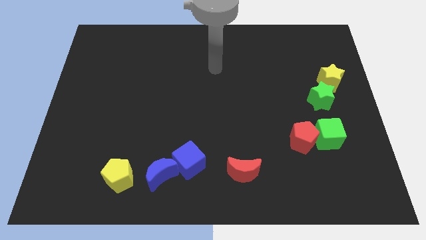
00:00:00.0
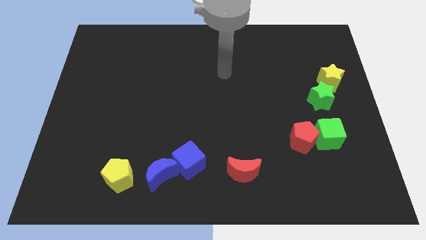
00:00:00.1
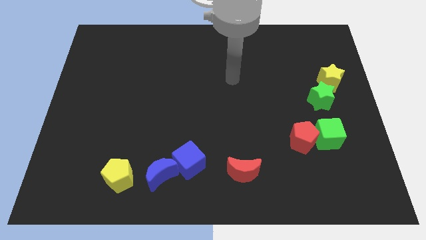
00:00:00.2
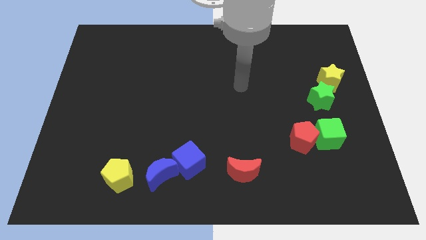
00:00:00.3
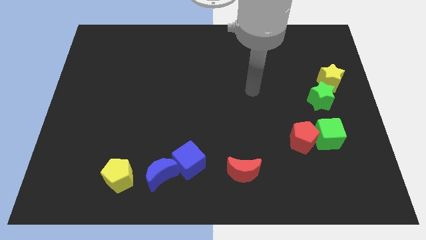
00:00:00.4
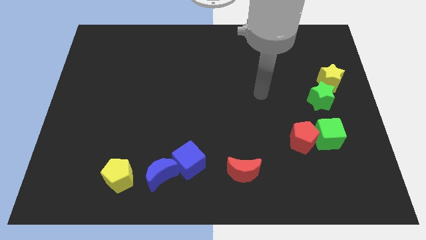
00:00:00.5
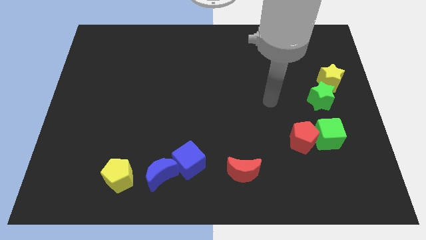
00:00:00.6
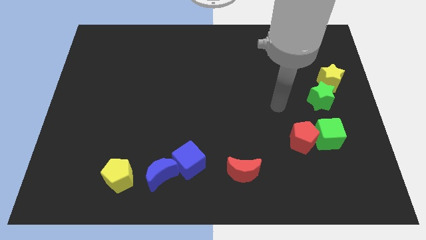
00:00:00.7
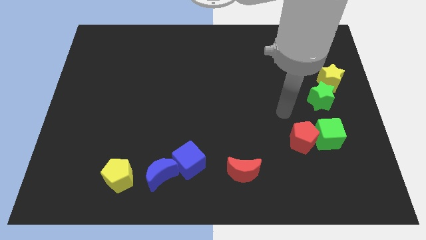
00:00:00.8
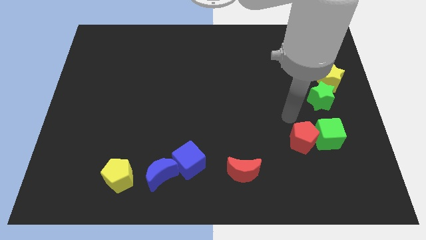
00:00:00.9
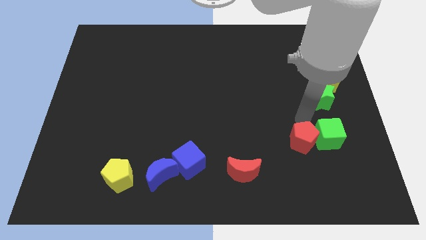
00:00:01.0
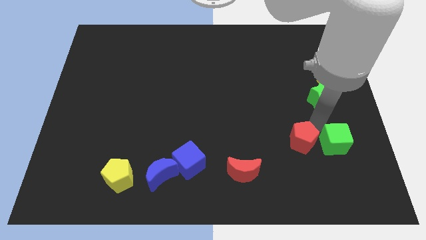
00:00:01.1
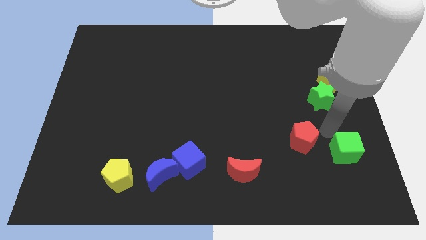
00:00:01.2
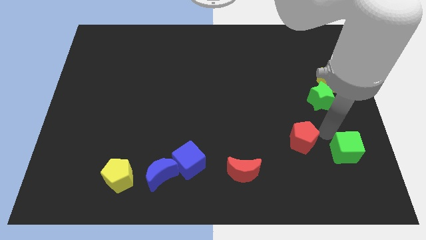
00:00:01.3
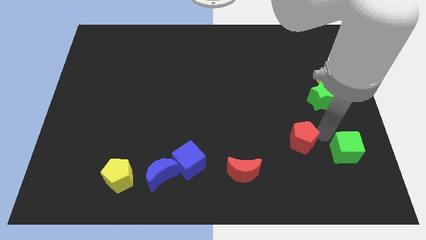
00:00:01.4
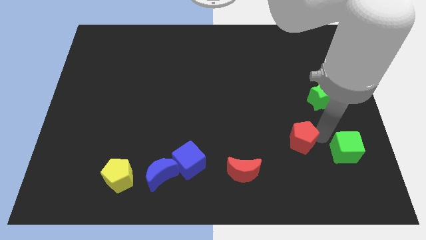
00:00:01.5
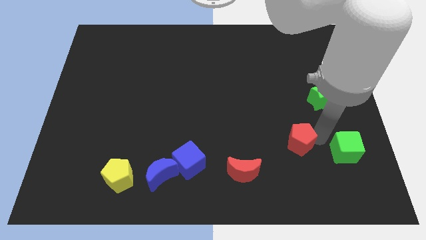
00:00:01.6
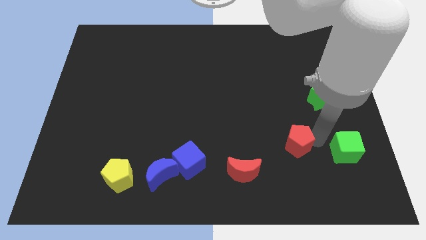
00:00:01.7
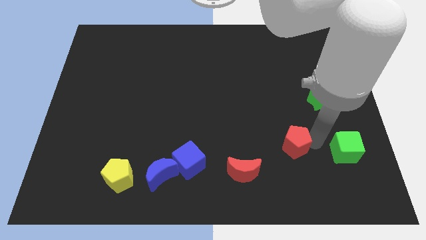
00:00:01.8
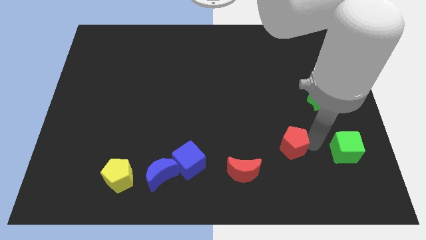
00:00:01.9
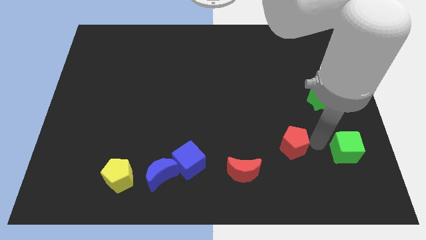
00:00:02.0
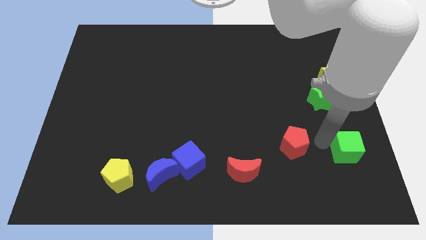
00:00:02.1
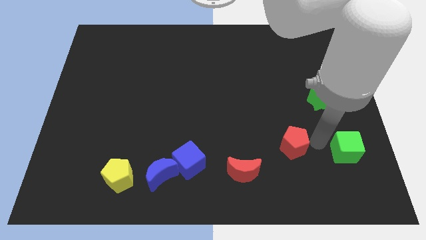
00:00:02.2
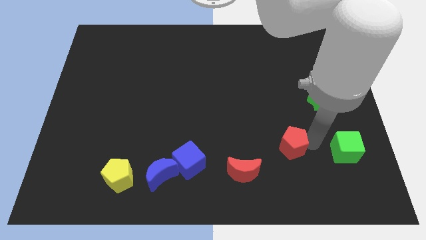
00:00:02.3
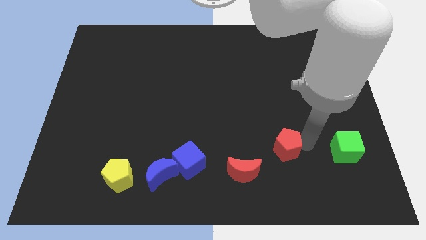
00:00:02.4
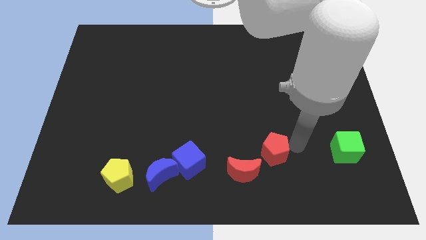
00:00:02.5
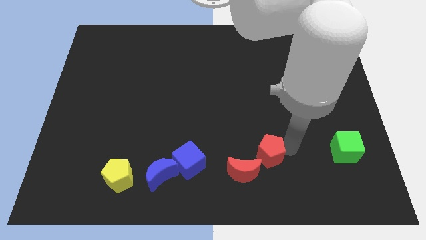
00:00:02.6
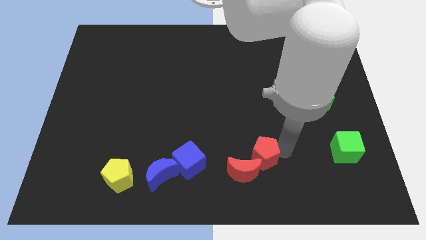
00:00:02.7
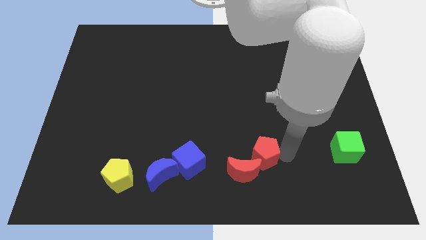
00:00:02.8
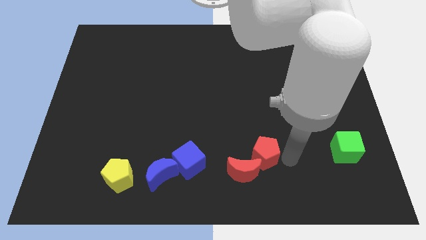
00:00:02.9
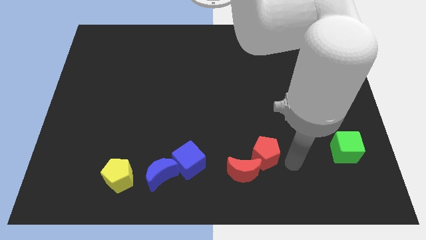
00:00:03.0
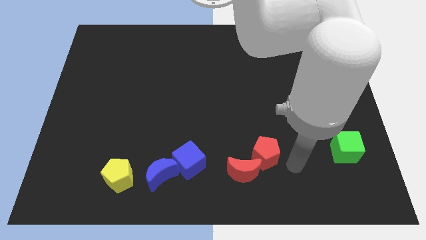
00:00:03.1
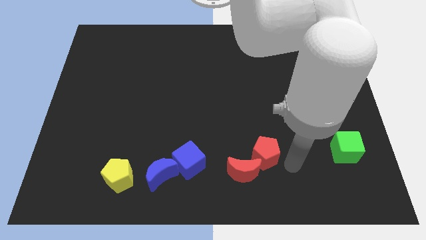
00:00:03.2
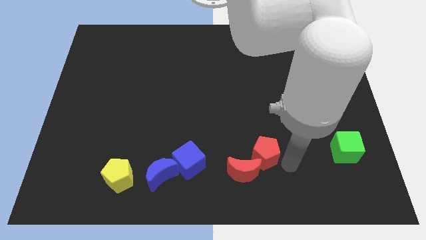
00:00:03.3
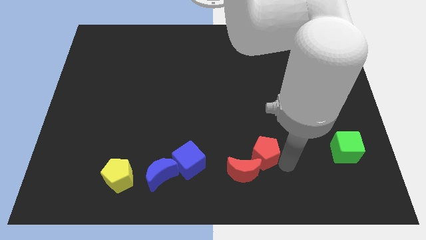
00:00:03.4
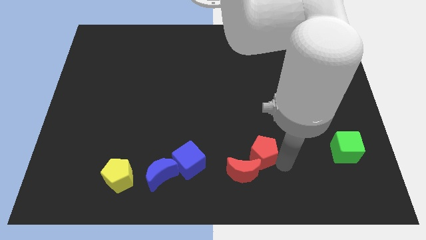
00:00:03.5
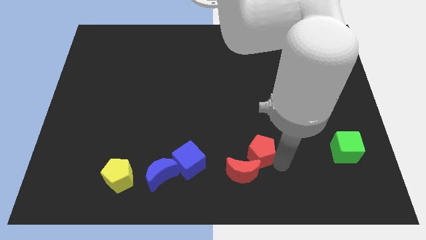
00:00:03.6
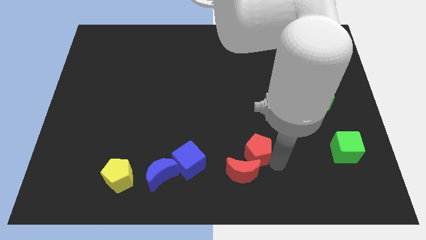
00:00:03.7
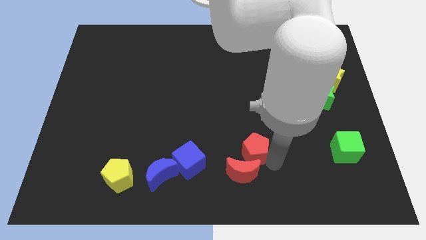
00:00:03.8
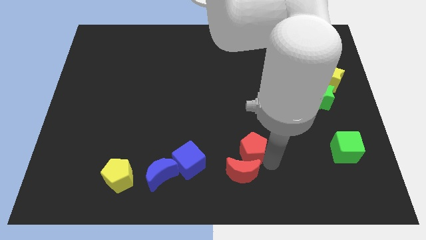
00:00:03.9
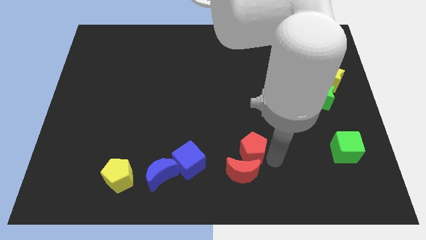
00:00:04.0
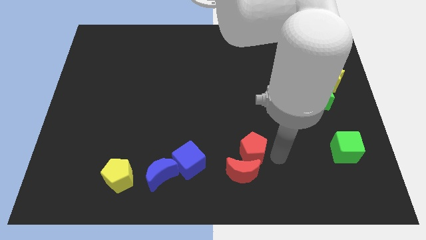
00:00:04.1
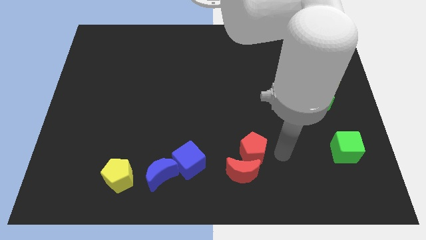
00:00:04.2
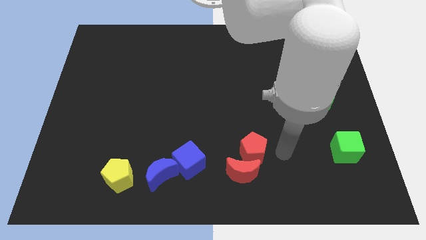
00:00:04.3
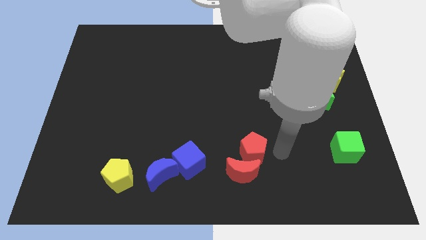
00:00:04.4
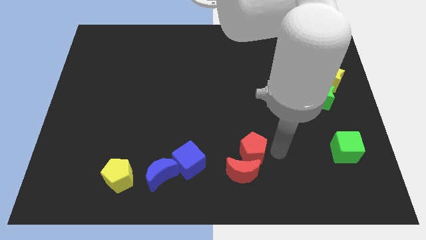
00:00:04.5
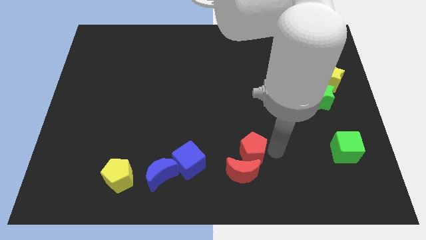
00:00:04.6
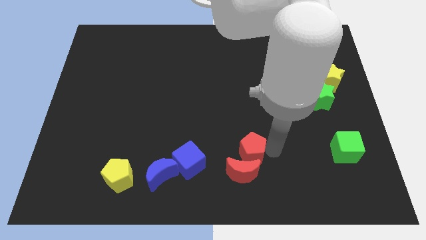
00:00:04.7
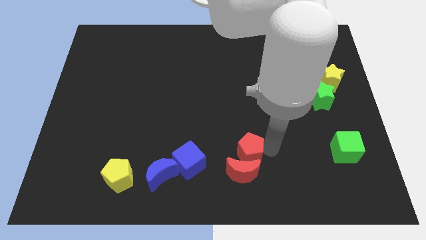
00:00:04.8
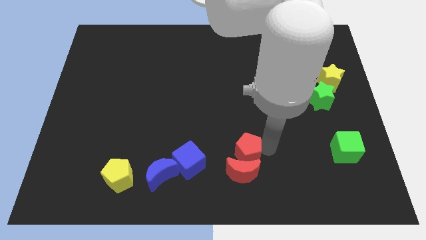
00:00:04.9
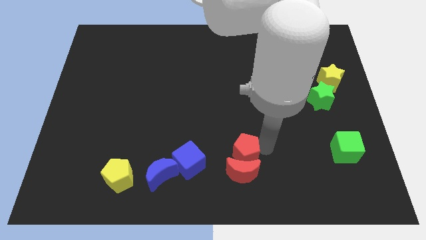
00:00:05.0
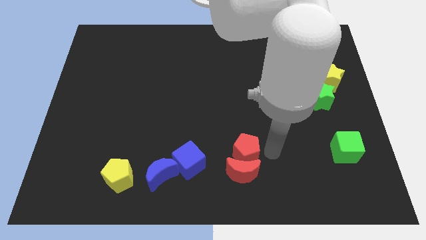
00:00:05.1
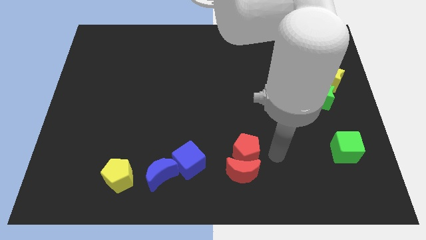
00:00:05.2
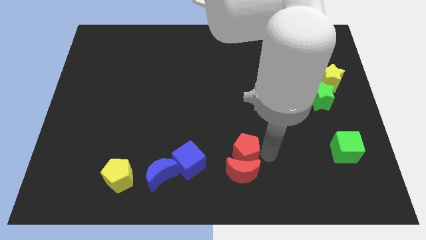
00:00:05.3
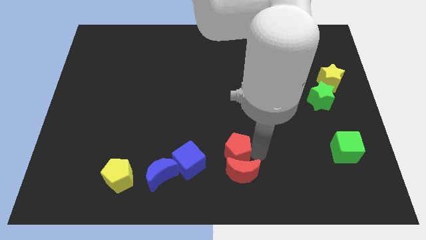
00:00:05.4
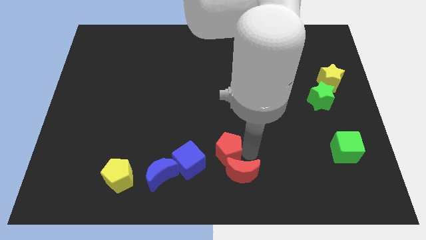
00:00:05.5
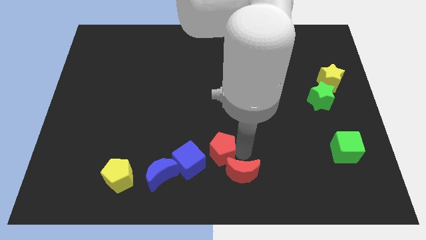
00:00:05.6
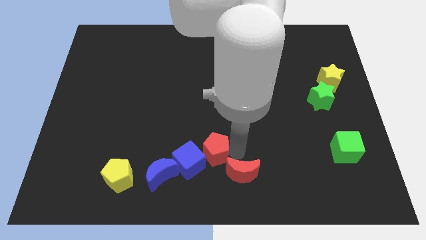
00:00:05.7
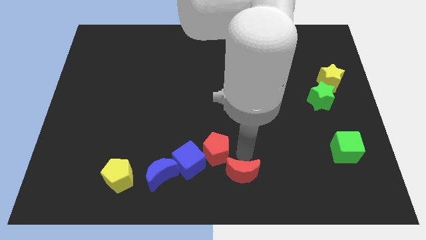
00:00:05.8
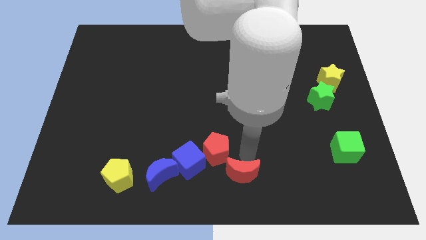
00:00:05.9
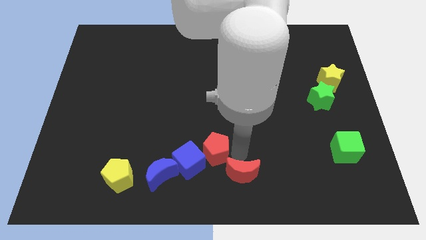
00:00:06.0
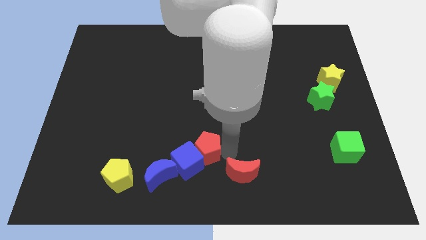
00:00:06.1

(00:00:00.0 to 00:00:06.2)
push the red pentagon to the blue cube

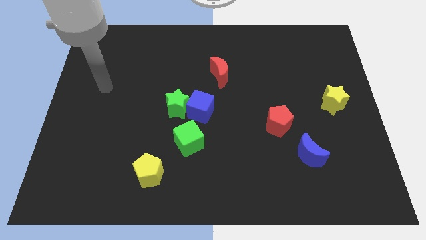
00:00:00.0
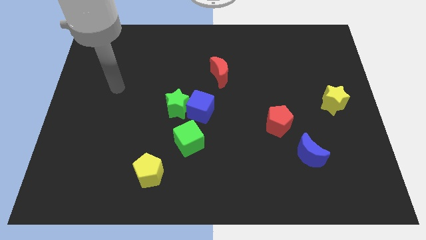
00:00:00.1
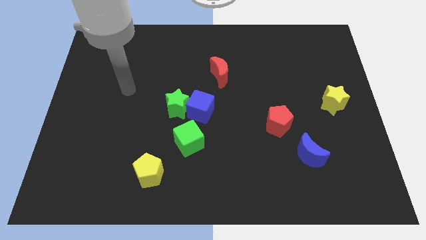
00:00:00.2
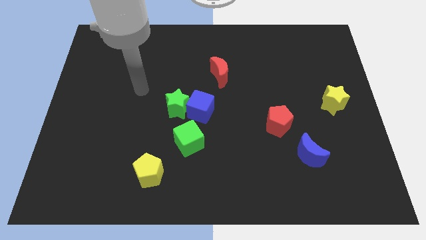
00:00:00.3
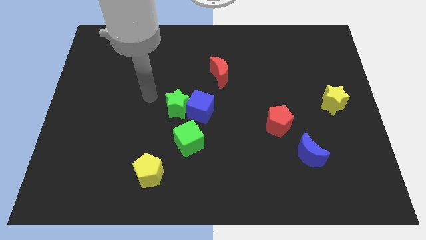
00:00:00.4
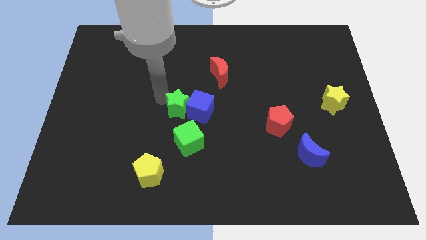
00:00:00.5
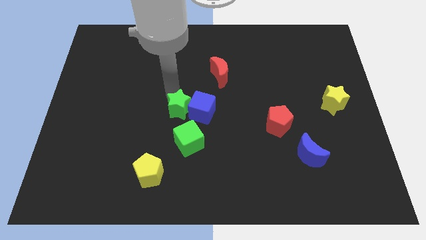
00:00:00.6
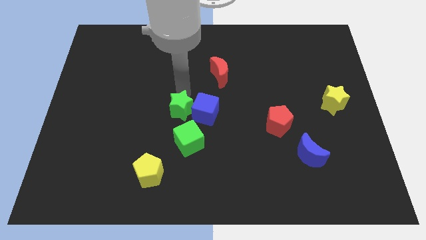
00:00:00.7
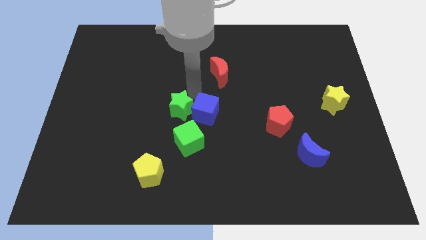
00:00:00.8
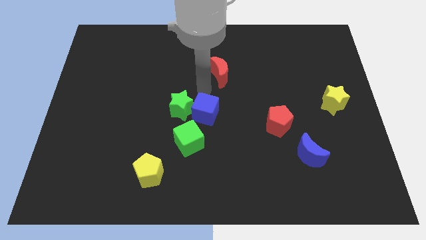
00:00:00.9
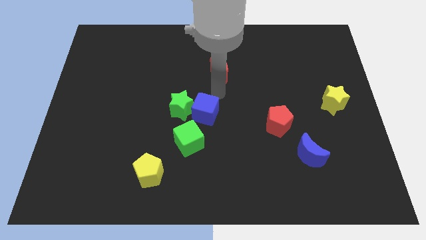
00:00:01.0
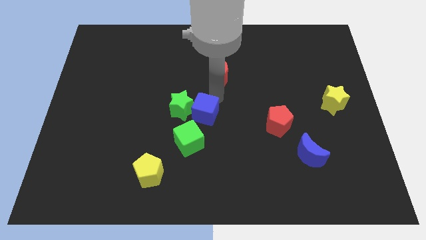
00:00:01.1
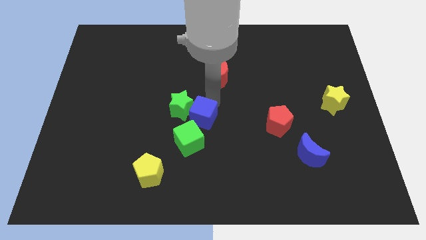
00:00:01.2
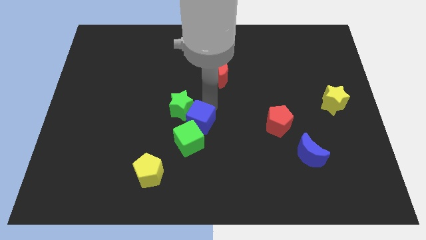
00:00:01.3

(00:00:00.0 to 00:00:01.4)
put the blue cube close to the green cube
